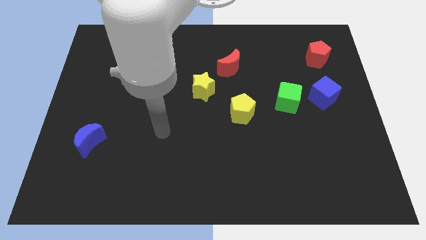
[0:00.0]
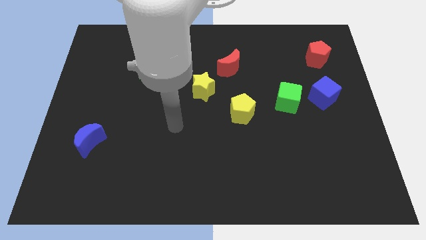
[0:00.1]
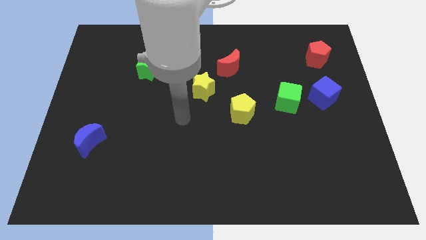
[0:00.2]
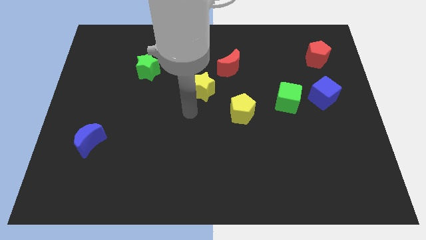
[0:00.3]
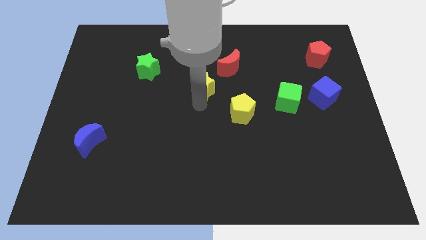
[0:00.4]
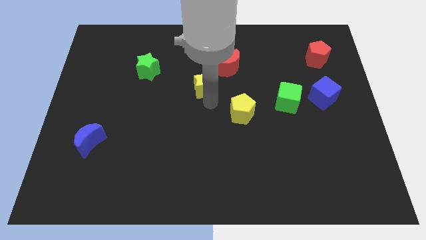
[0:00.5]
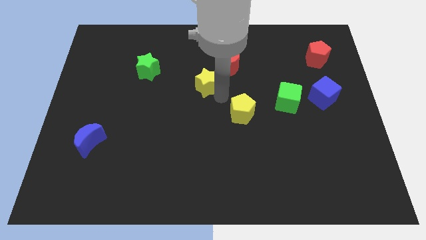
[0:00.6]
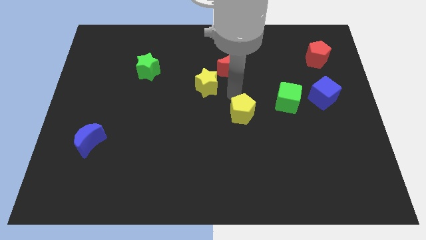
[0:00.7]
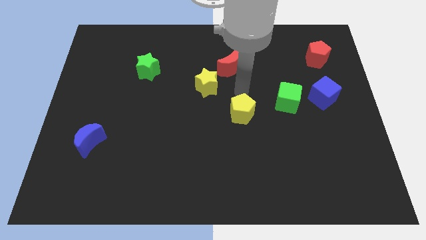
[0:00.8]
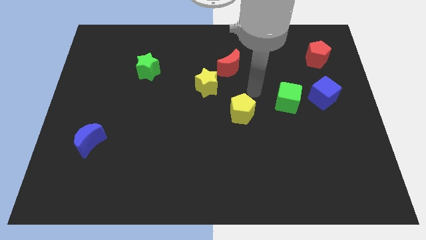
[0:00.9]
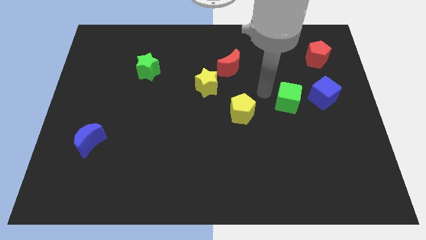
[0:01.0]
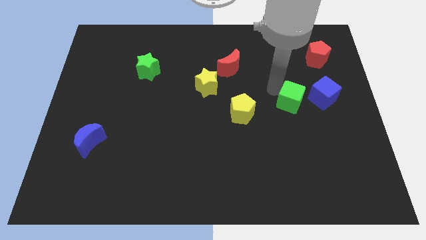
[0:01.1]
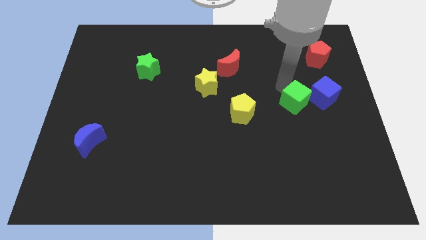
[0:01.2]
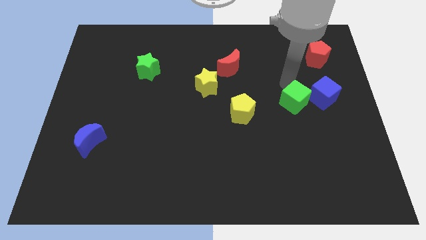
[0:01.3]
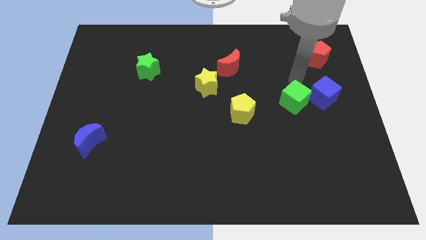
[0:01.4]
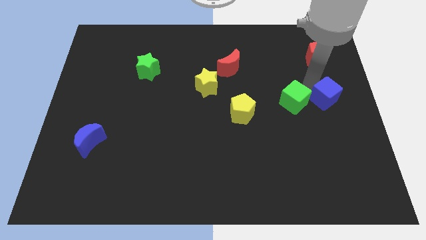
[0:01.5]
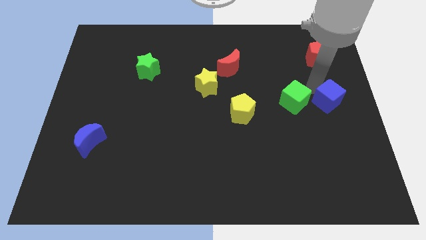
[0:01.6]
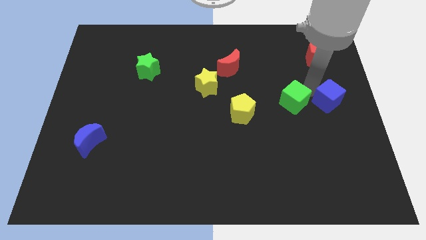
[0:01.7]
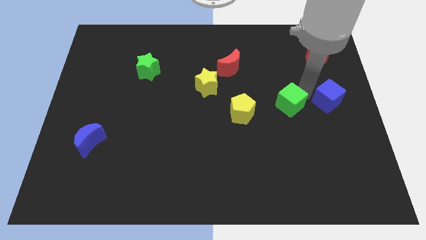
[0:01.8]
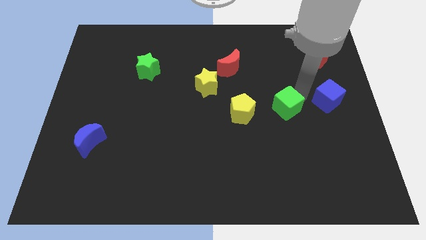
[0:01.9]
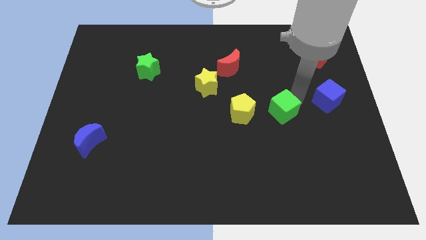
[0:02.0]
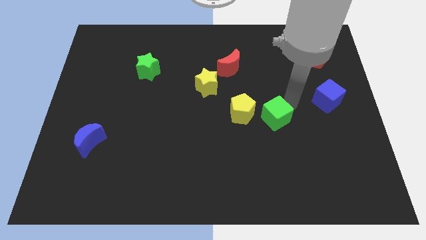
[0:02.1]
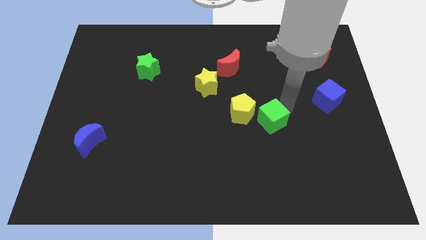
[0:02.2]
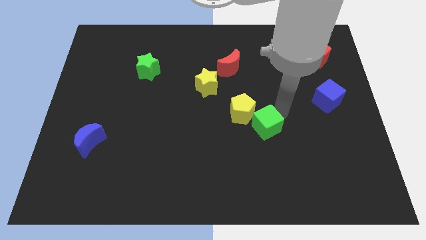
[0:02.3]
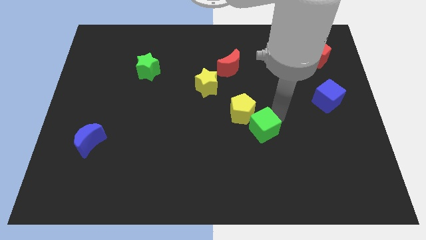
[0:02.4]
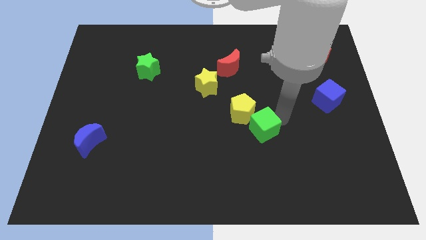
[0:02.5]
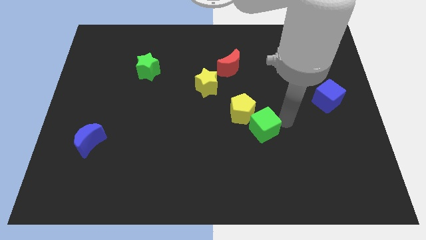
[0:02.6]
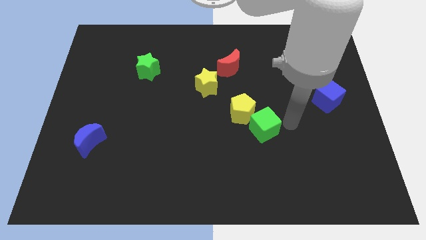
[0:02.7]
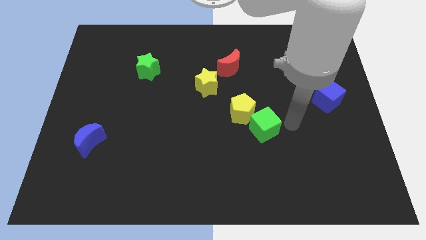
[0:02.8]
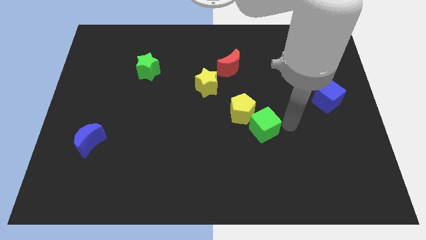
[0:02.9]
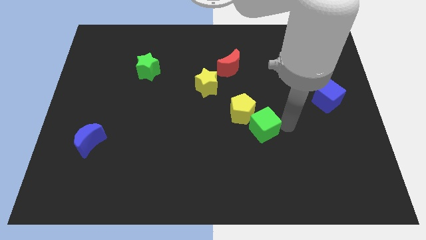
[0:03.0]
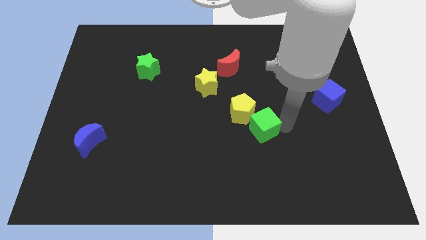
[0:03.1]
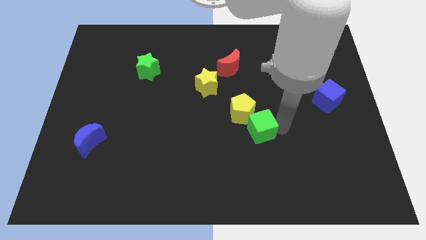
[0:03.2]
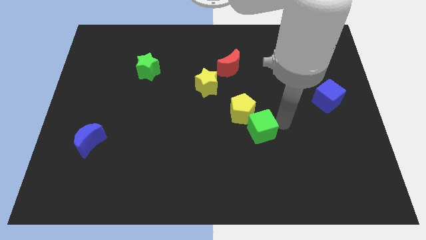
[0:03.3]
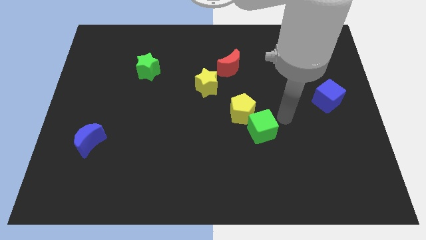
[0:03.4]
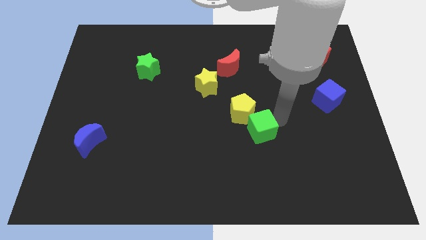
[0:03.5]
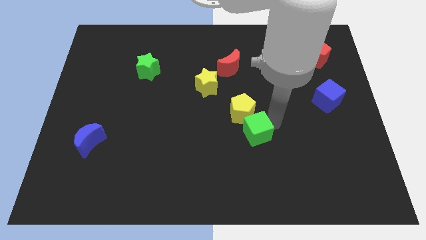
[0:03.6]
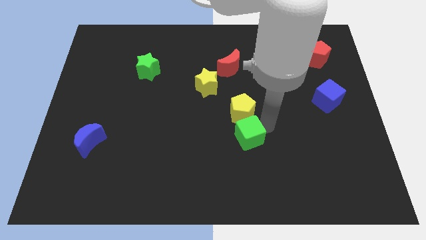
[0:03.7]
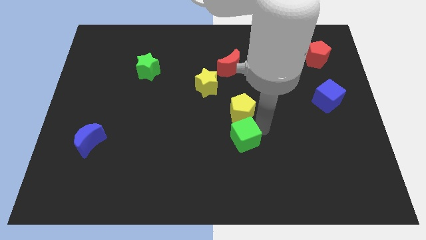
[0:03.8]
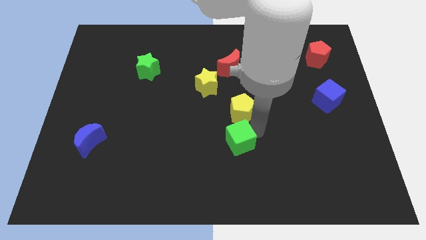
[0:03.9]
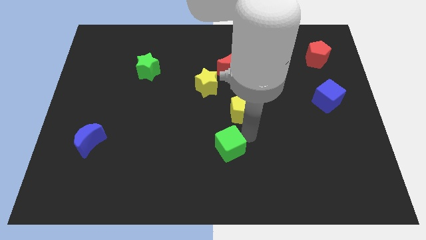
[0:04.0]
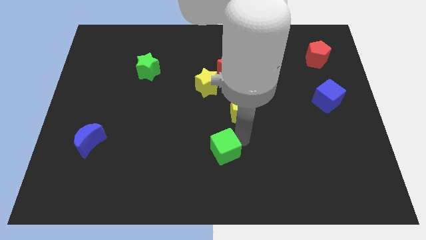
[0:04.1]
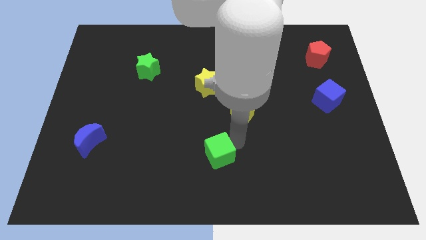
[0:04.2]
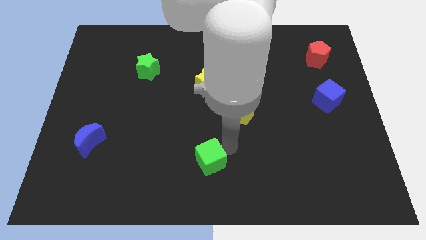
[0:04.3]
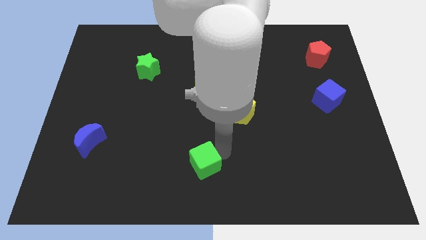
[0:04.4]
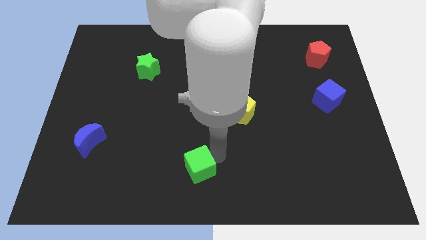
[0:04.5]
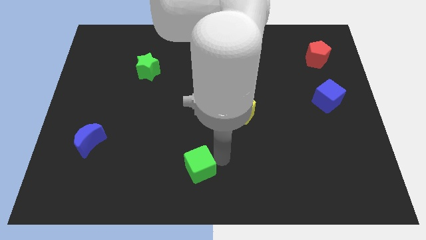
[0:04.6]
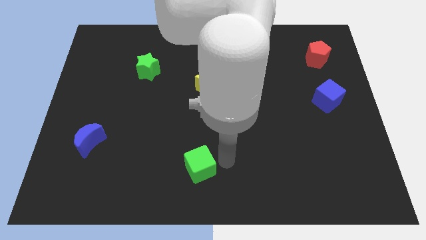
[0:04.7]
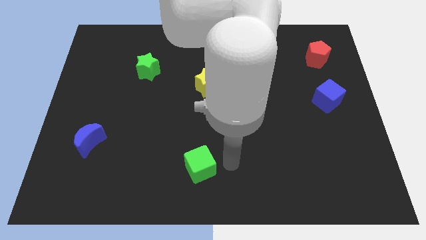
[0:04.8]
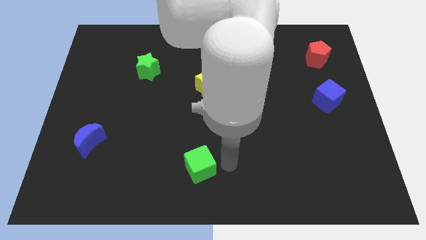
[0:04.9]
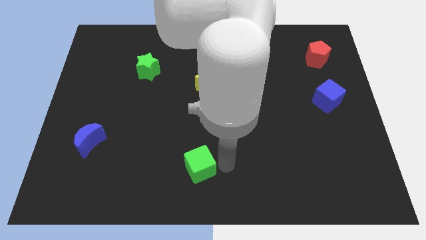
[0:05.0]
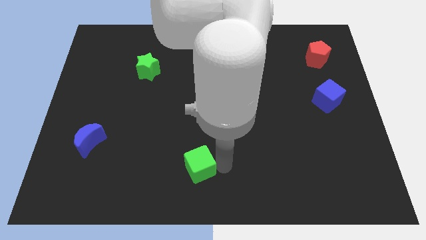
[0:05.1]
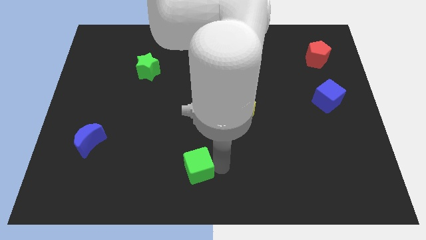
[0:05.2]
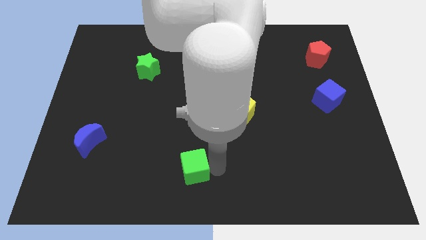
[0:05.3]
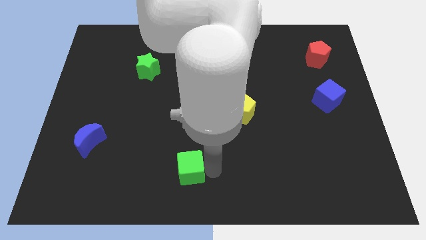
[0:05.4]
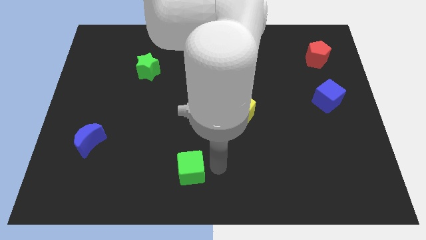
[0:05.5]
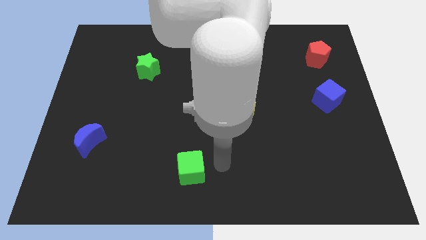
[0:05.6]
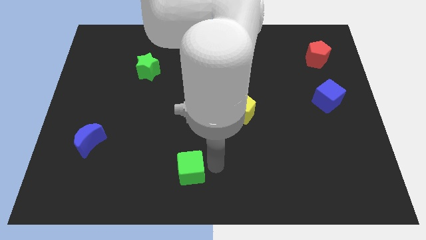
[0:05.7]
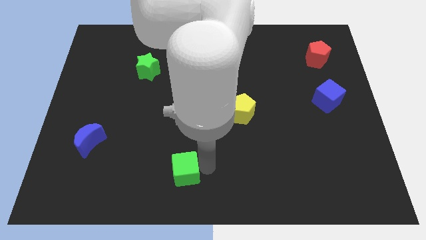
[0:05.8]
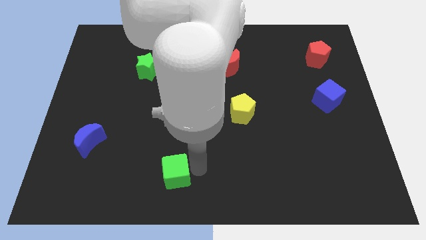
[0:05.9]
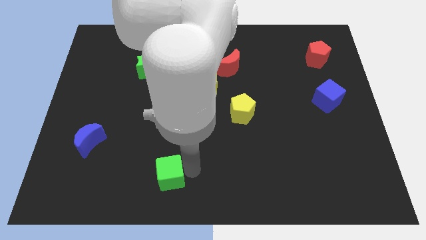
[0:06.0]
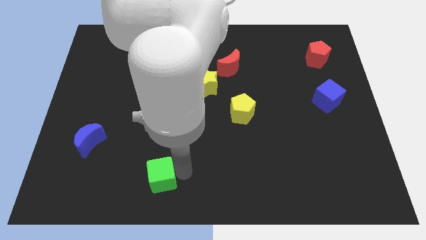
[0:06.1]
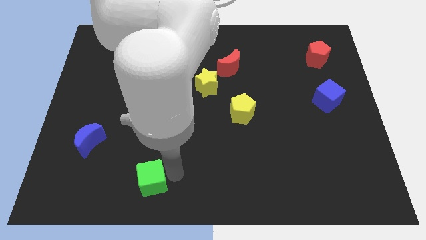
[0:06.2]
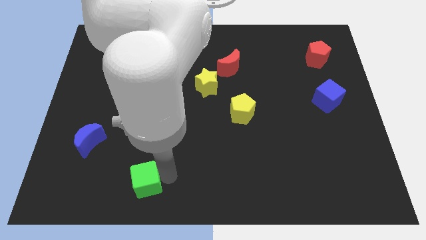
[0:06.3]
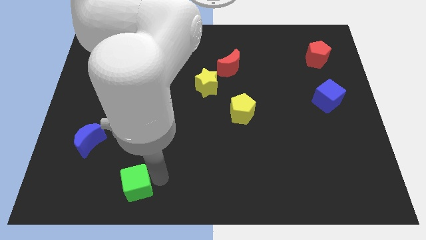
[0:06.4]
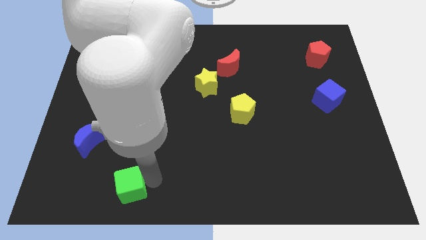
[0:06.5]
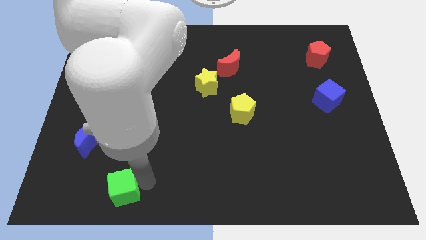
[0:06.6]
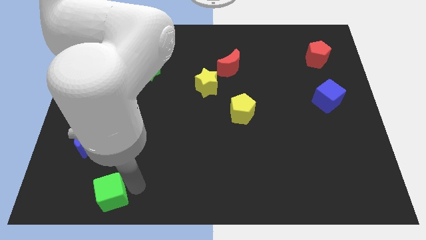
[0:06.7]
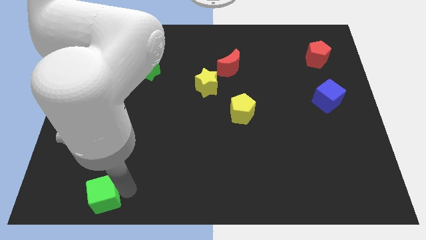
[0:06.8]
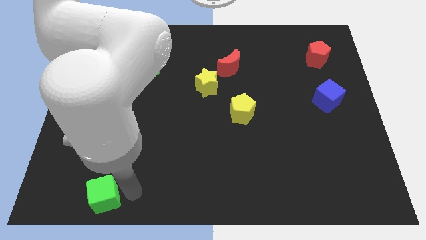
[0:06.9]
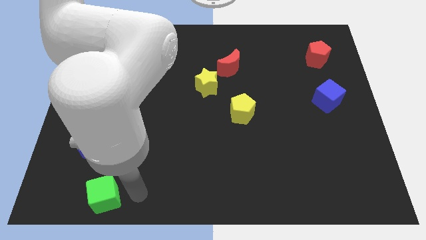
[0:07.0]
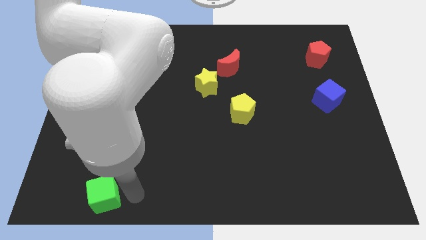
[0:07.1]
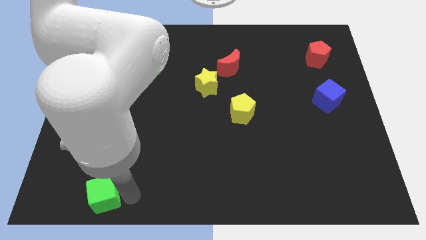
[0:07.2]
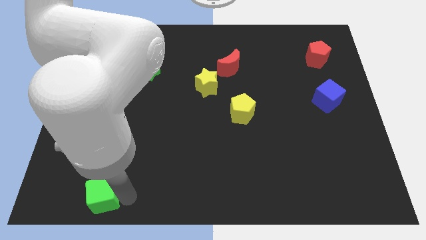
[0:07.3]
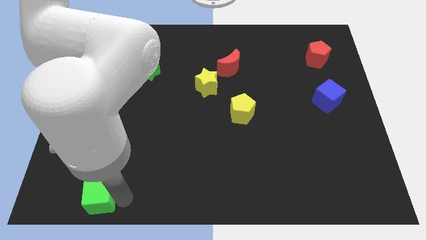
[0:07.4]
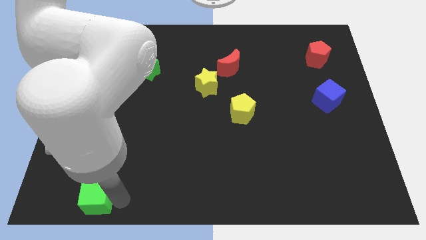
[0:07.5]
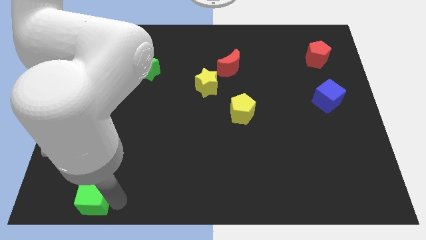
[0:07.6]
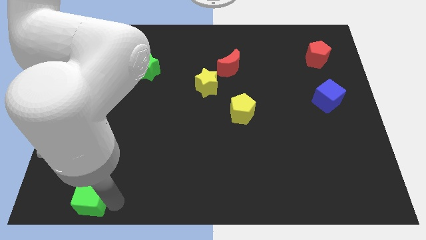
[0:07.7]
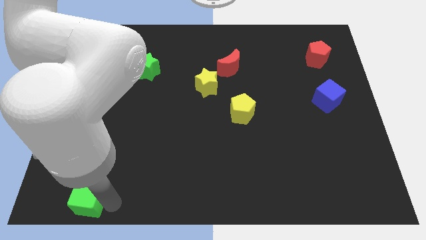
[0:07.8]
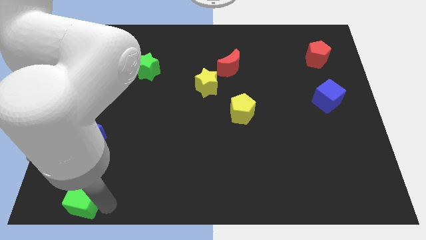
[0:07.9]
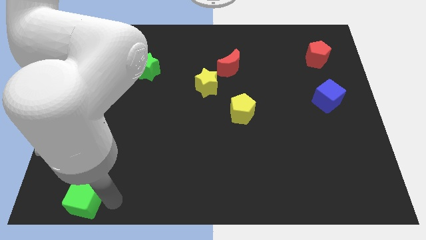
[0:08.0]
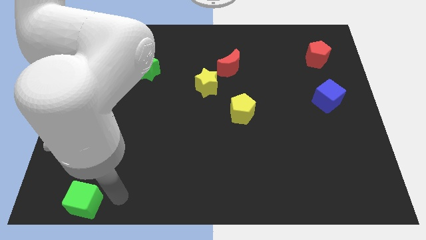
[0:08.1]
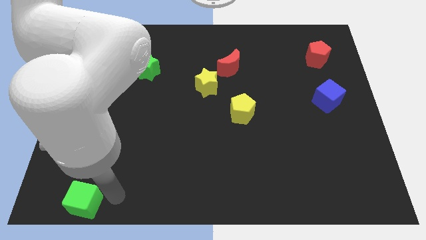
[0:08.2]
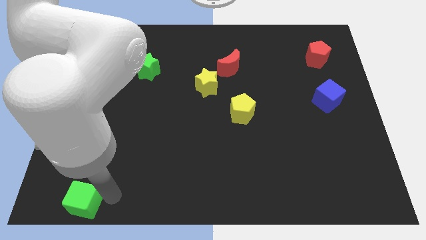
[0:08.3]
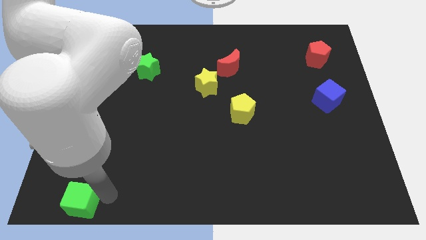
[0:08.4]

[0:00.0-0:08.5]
move the green cube to the bottom left
